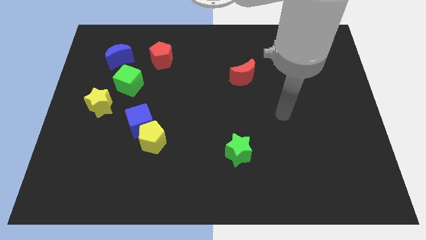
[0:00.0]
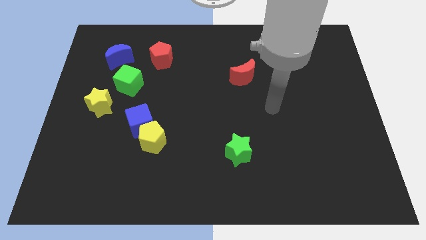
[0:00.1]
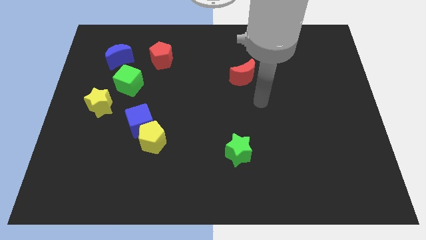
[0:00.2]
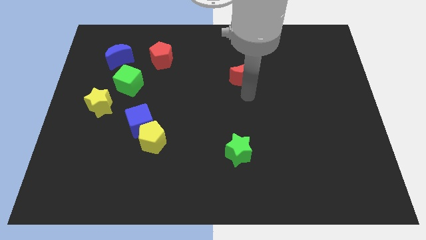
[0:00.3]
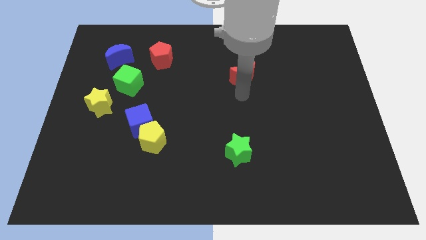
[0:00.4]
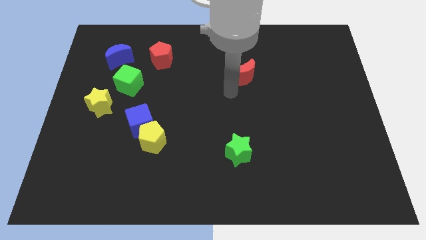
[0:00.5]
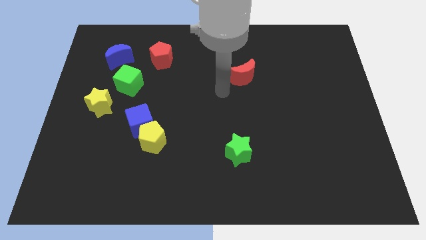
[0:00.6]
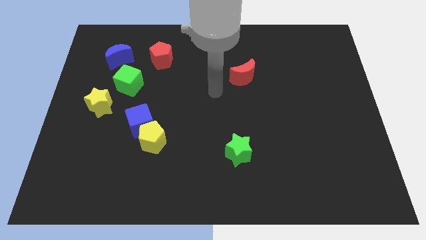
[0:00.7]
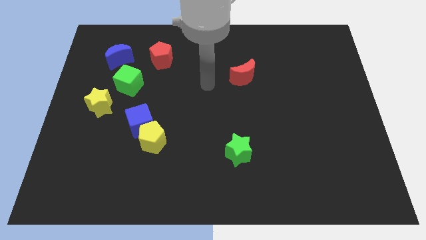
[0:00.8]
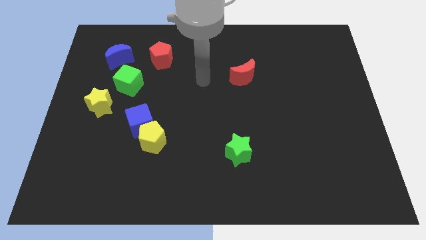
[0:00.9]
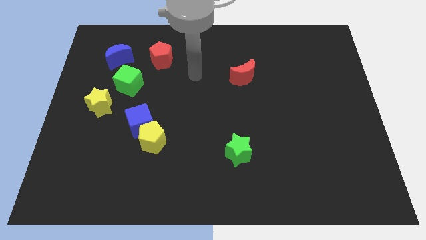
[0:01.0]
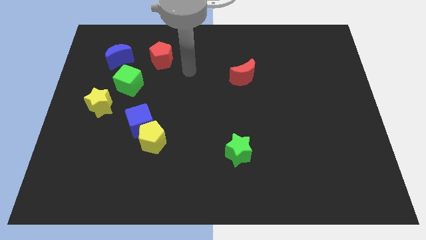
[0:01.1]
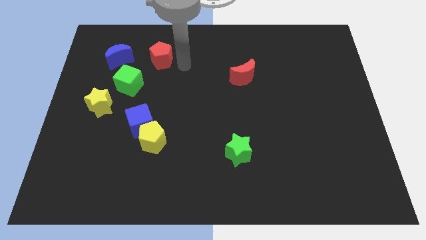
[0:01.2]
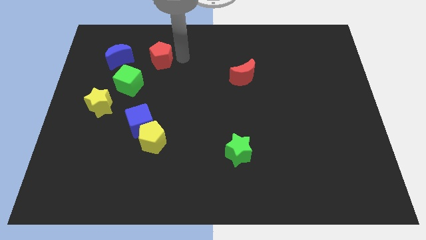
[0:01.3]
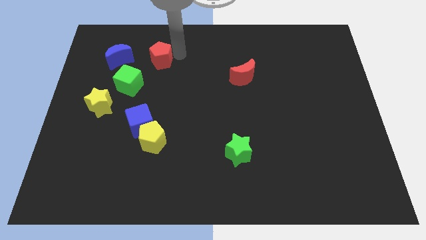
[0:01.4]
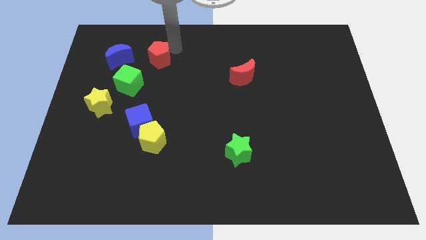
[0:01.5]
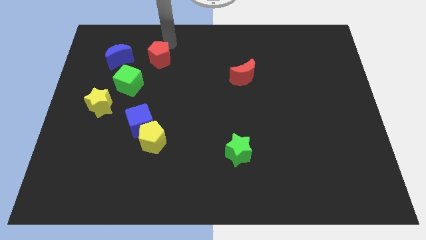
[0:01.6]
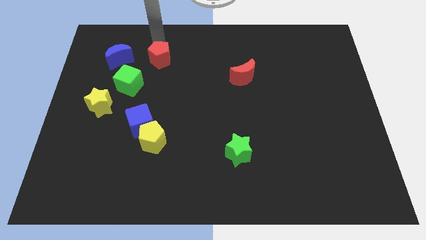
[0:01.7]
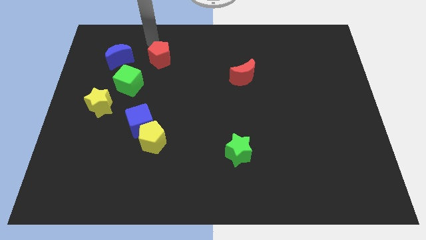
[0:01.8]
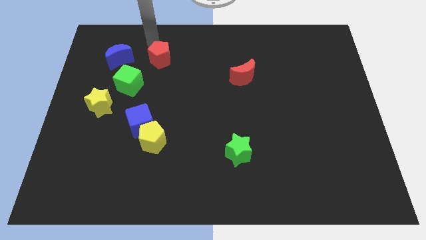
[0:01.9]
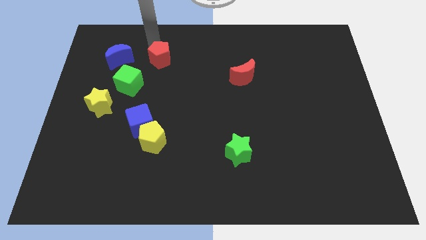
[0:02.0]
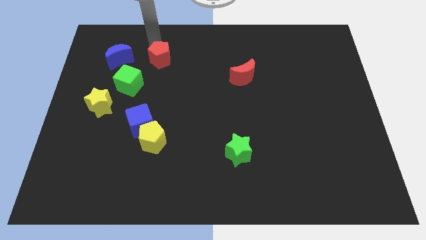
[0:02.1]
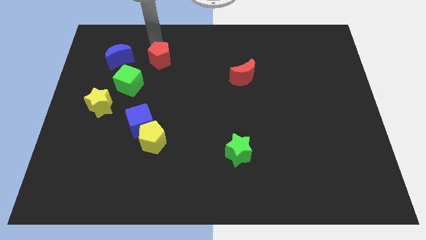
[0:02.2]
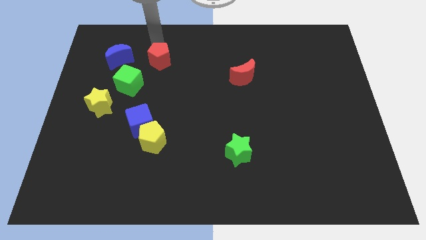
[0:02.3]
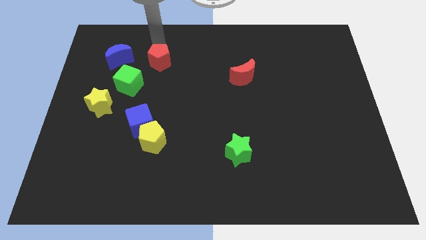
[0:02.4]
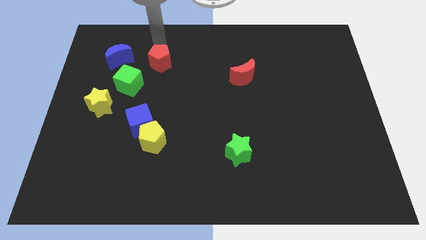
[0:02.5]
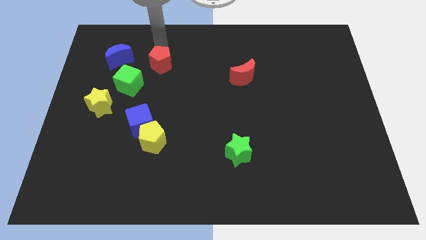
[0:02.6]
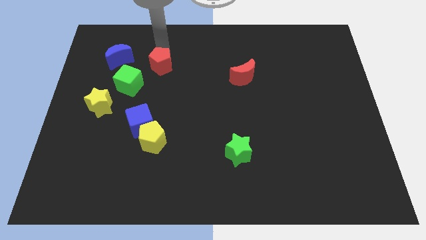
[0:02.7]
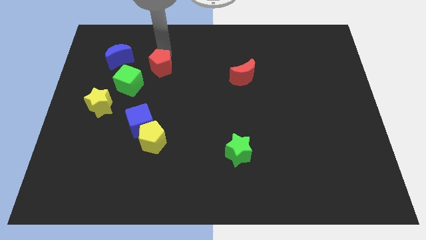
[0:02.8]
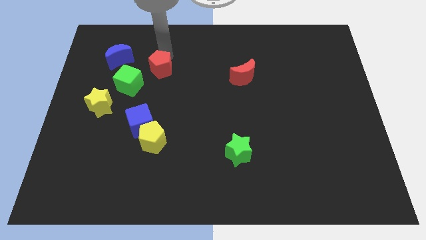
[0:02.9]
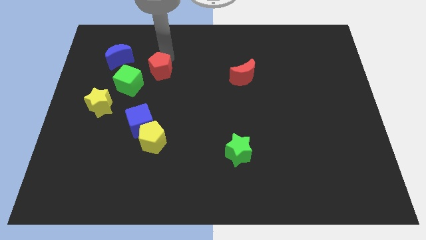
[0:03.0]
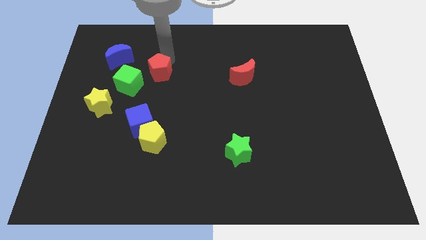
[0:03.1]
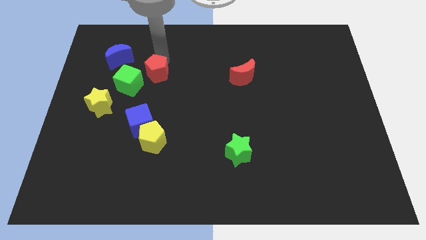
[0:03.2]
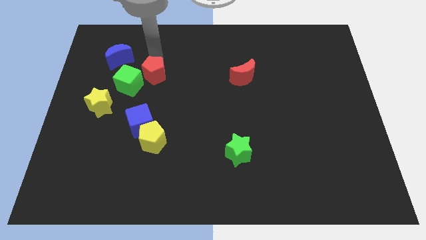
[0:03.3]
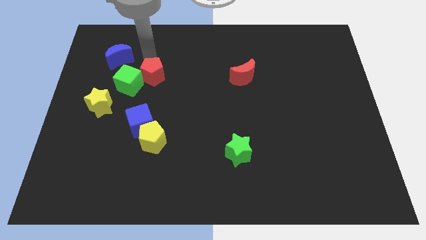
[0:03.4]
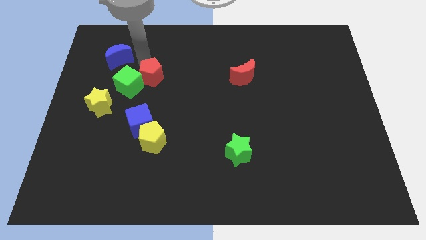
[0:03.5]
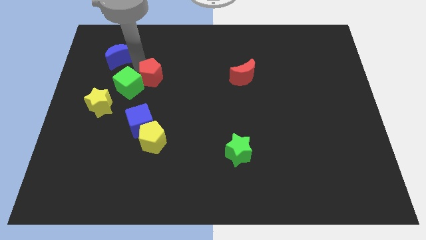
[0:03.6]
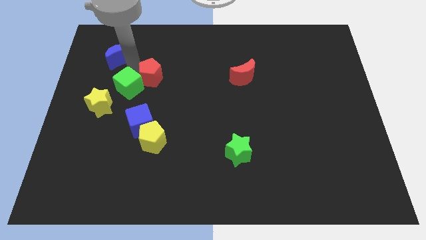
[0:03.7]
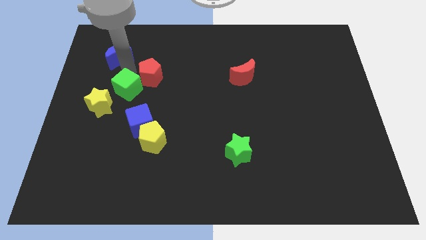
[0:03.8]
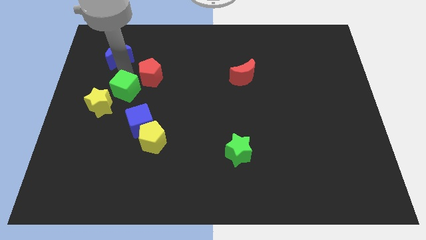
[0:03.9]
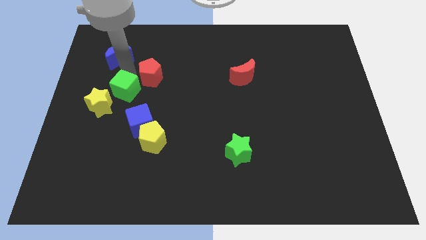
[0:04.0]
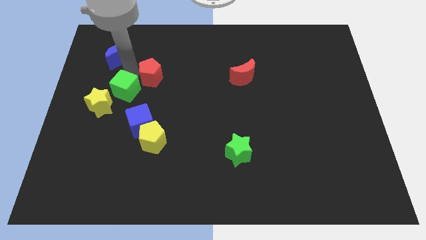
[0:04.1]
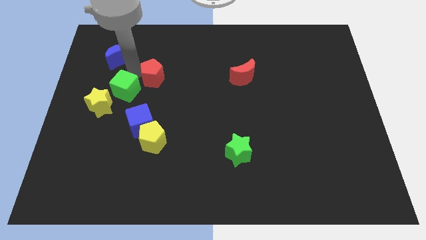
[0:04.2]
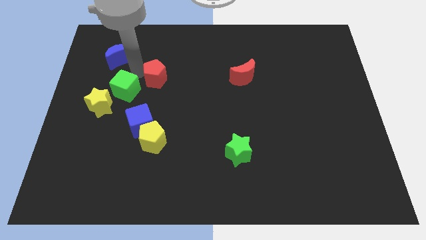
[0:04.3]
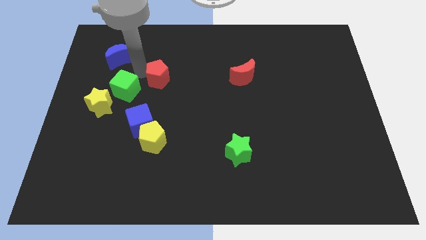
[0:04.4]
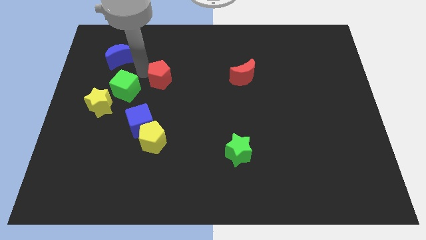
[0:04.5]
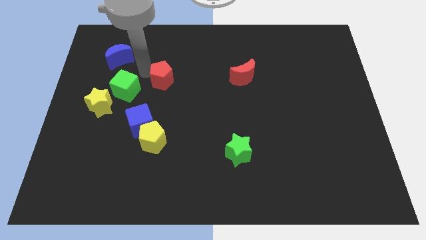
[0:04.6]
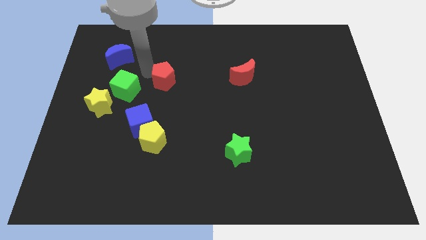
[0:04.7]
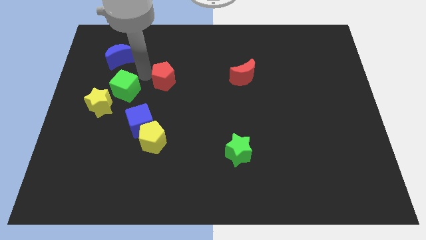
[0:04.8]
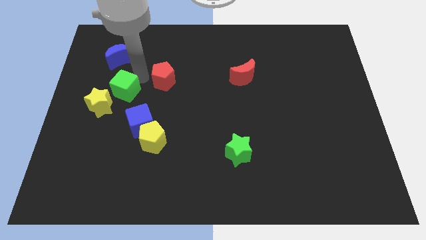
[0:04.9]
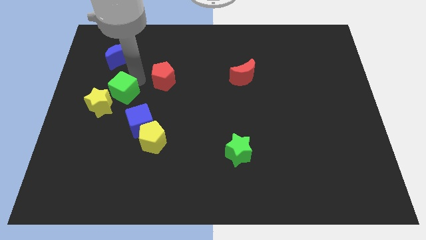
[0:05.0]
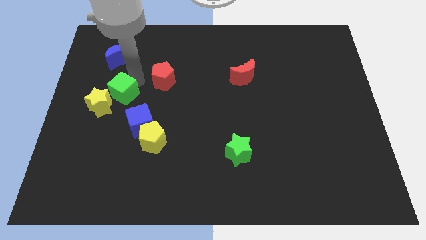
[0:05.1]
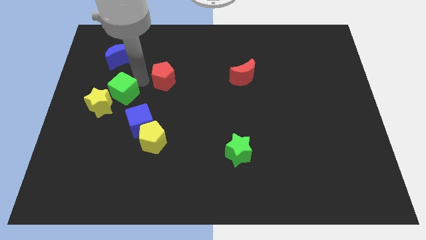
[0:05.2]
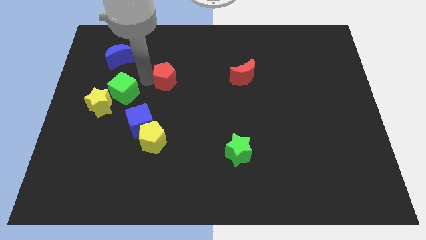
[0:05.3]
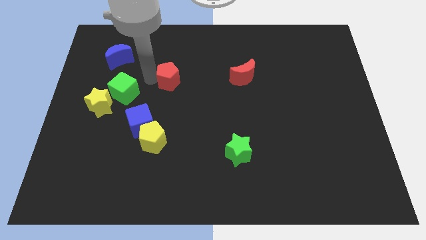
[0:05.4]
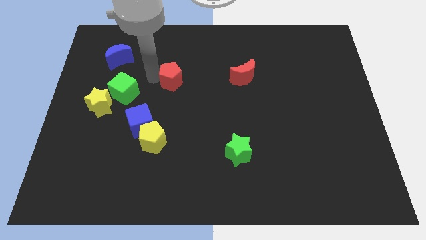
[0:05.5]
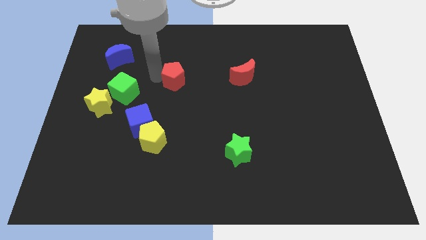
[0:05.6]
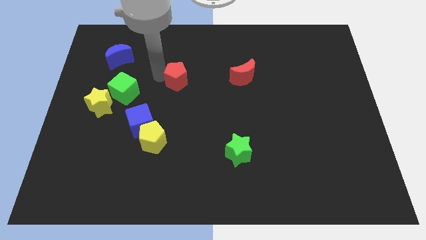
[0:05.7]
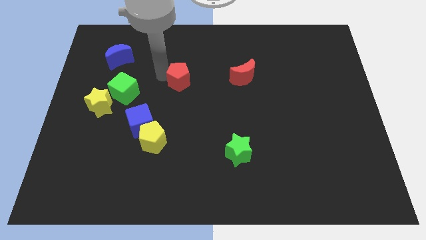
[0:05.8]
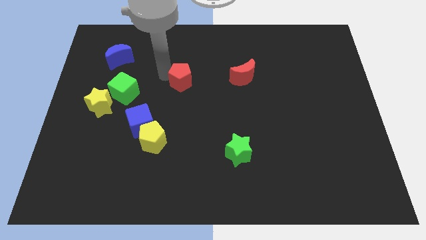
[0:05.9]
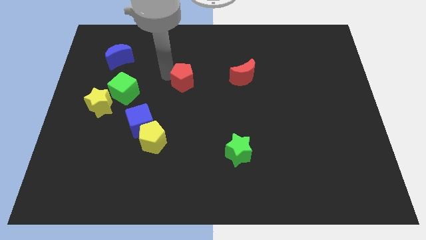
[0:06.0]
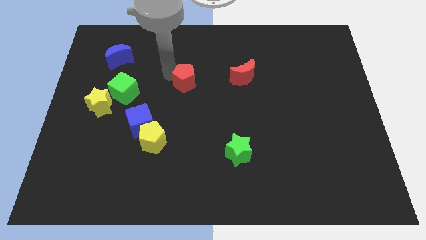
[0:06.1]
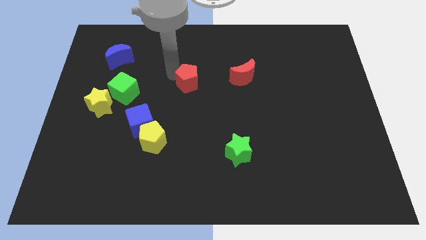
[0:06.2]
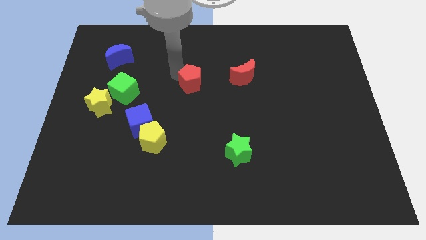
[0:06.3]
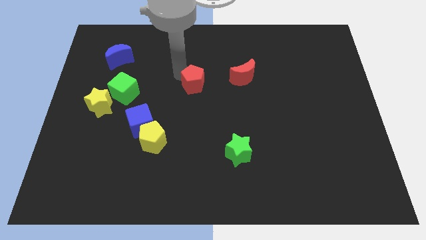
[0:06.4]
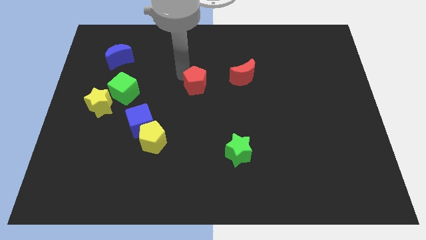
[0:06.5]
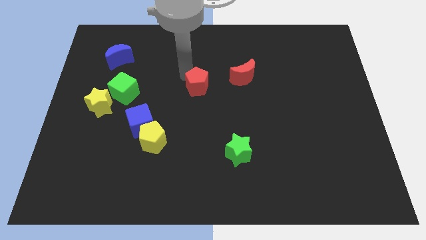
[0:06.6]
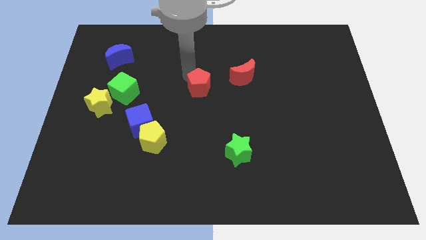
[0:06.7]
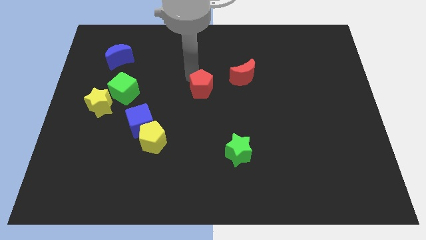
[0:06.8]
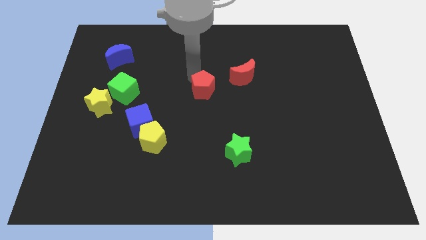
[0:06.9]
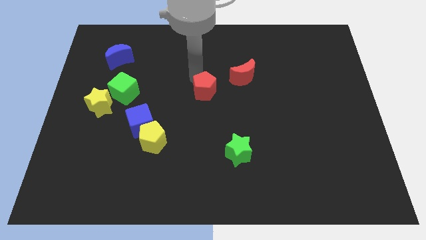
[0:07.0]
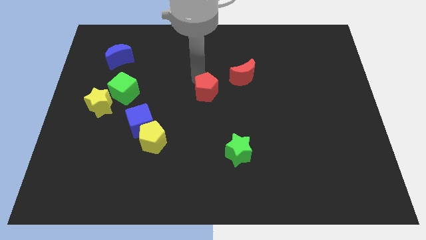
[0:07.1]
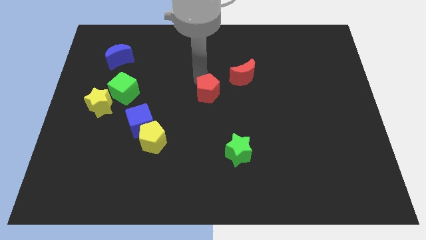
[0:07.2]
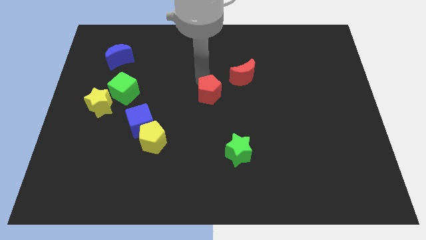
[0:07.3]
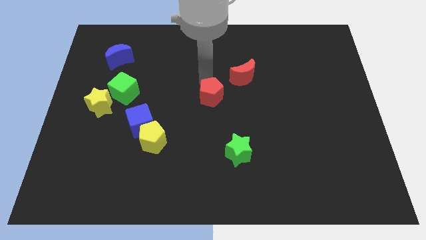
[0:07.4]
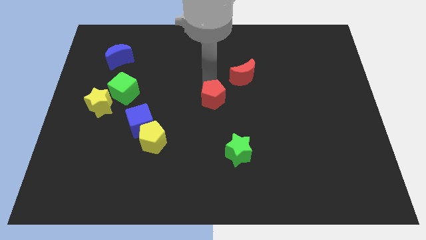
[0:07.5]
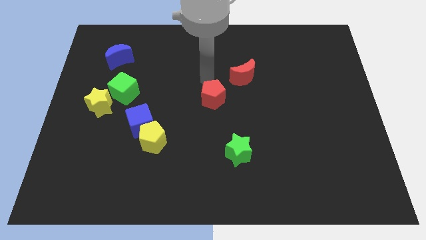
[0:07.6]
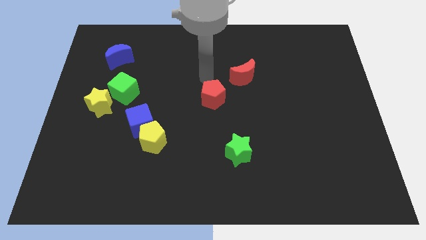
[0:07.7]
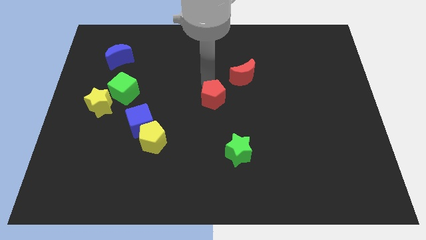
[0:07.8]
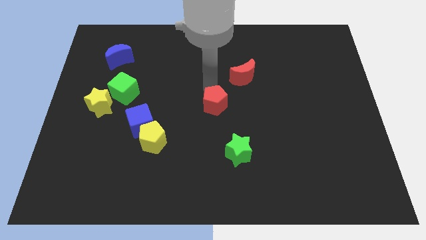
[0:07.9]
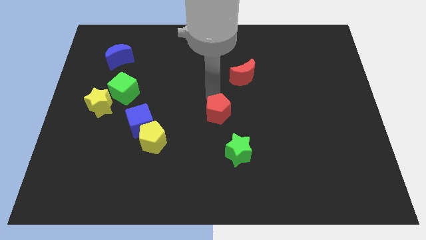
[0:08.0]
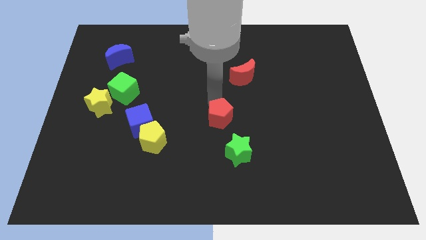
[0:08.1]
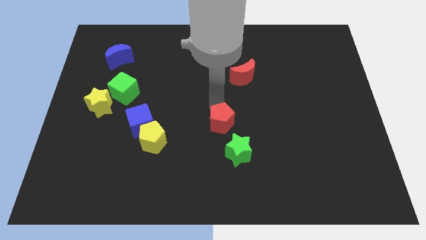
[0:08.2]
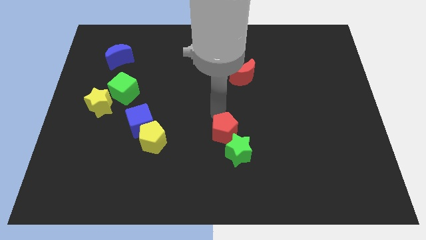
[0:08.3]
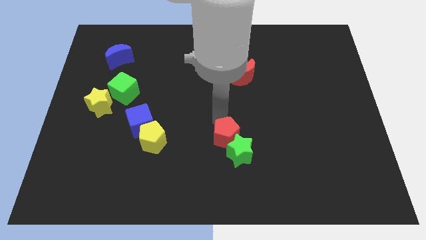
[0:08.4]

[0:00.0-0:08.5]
put the red pentagon next to the green star
